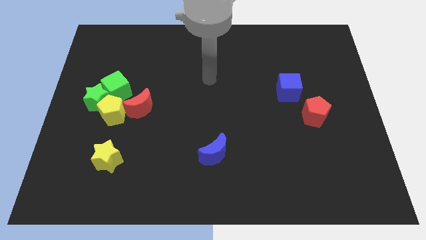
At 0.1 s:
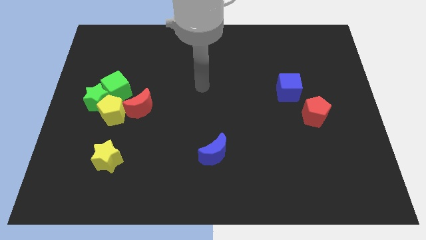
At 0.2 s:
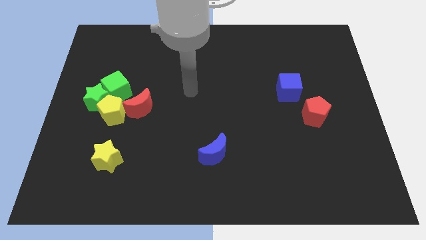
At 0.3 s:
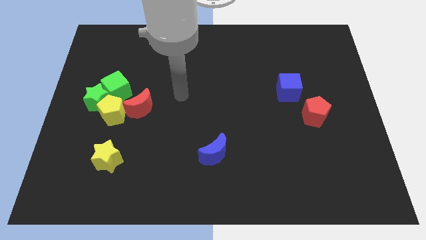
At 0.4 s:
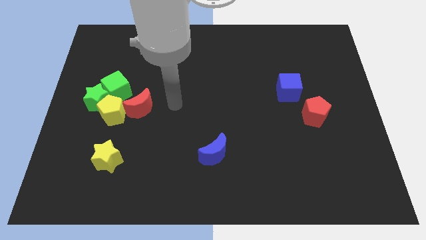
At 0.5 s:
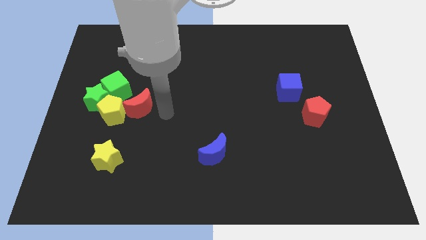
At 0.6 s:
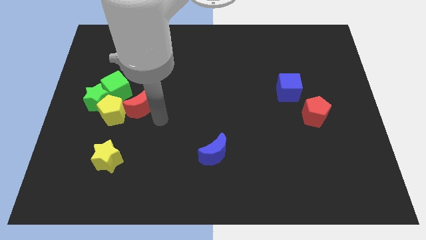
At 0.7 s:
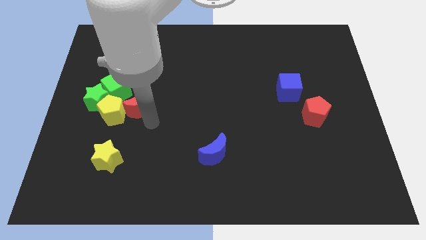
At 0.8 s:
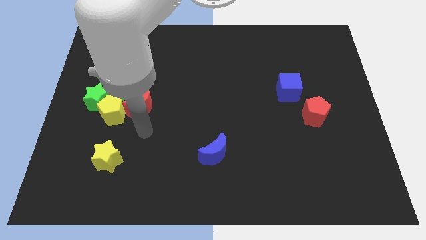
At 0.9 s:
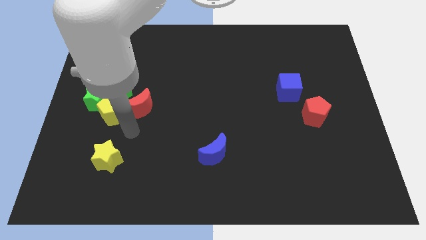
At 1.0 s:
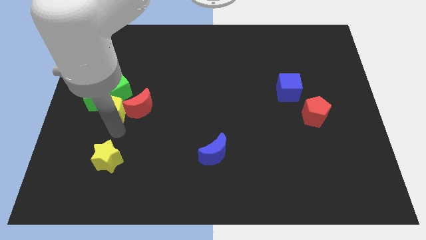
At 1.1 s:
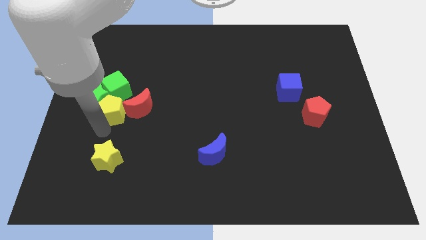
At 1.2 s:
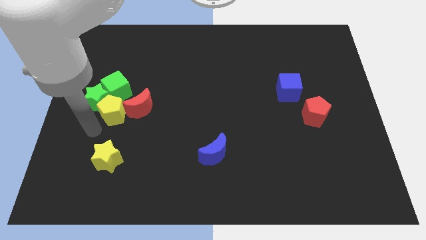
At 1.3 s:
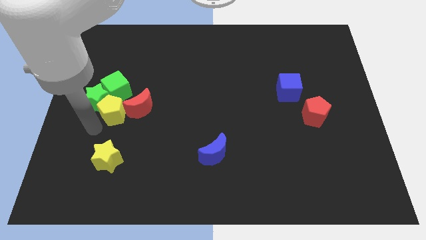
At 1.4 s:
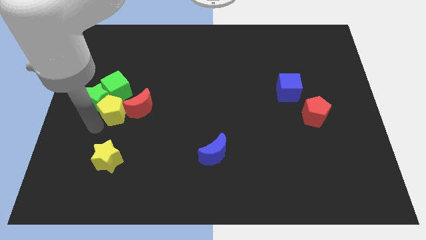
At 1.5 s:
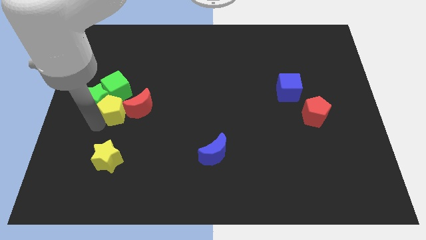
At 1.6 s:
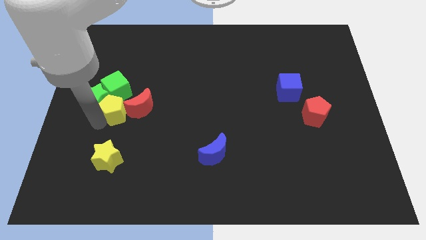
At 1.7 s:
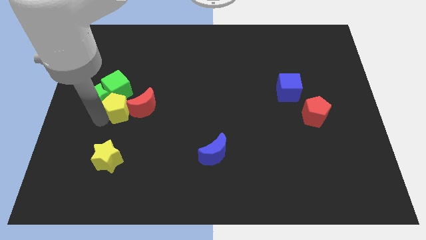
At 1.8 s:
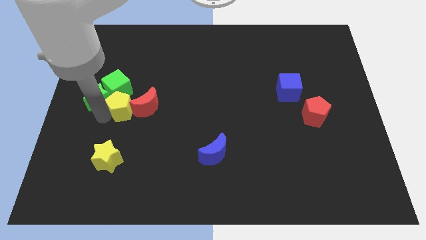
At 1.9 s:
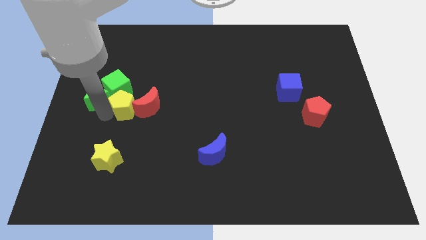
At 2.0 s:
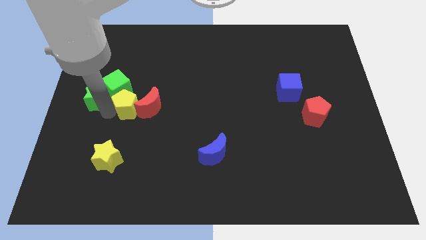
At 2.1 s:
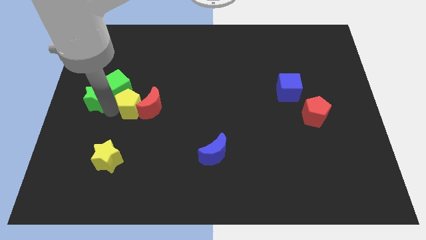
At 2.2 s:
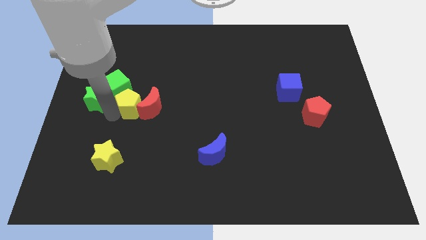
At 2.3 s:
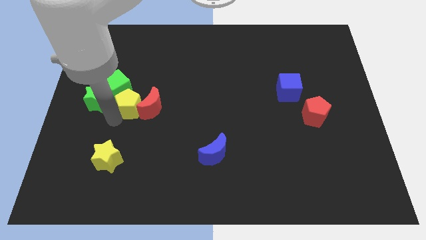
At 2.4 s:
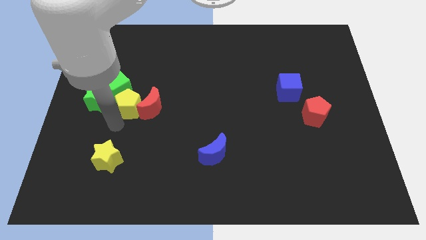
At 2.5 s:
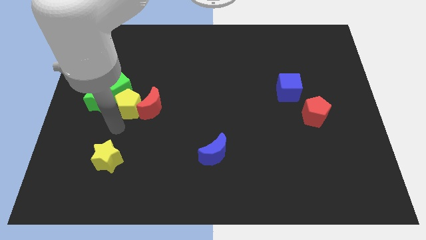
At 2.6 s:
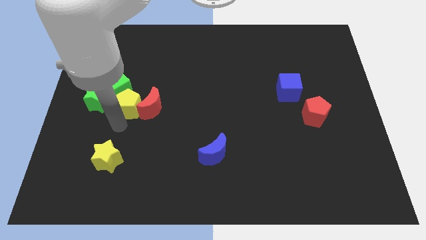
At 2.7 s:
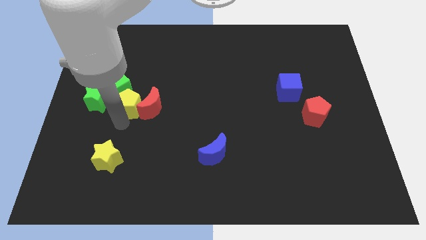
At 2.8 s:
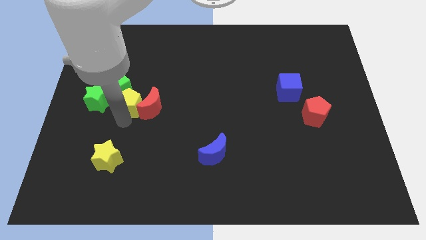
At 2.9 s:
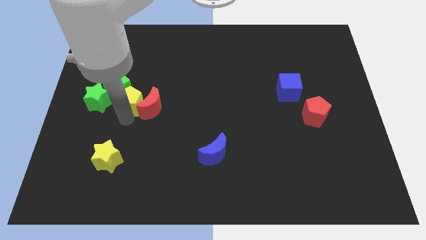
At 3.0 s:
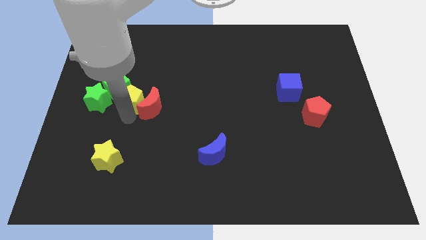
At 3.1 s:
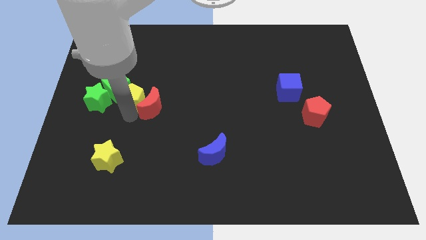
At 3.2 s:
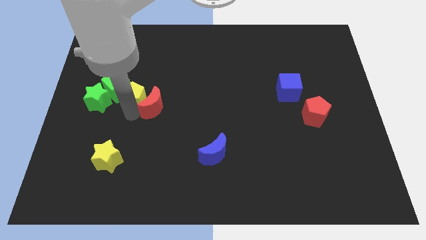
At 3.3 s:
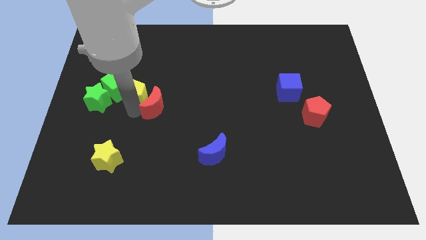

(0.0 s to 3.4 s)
slide the yellow pentagon slightly up and to the right

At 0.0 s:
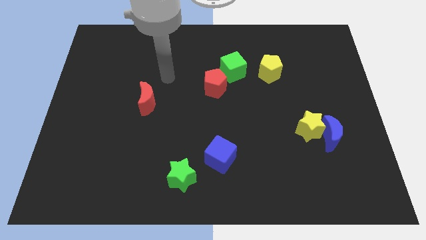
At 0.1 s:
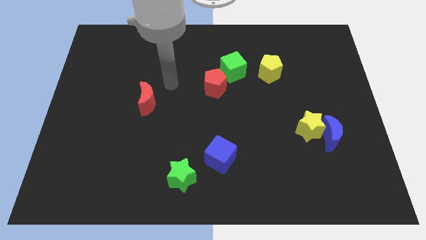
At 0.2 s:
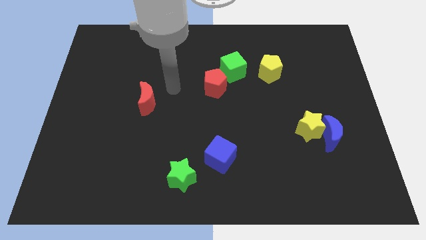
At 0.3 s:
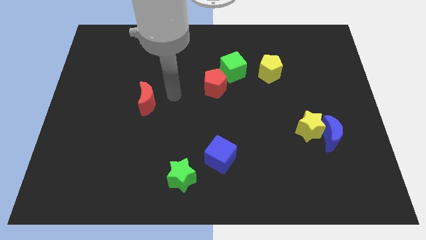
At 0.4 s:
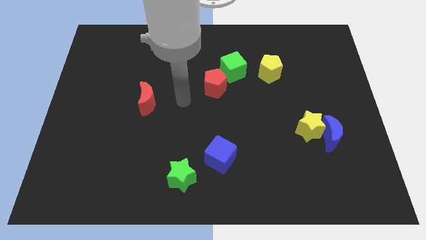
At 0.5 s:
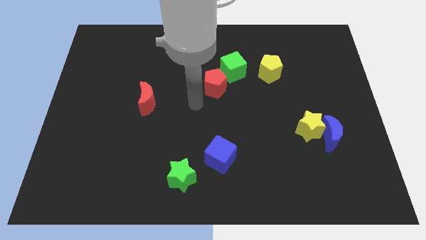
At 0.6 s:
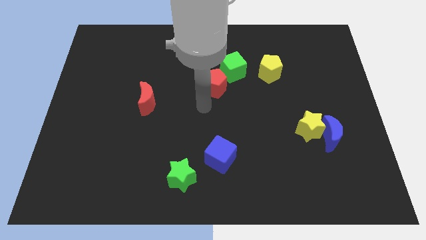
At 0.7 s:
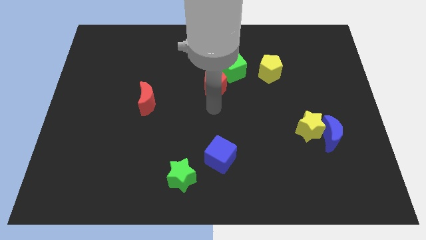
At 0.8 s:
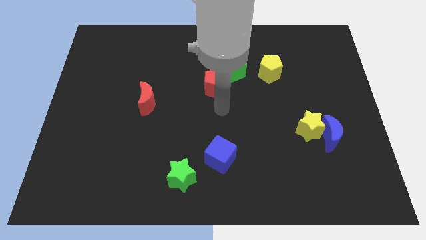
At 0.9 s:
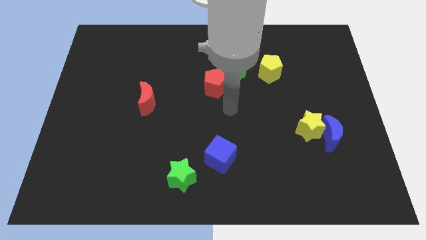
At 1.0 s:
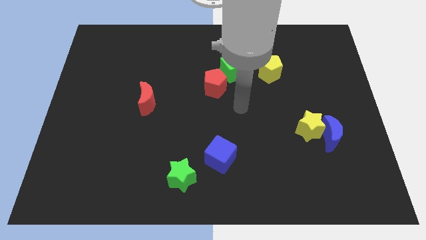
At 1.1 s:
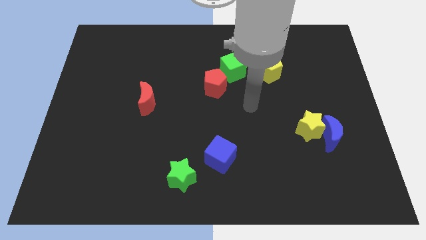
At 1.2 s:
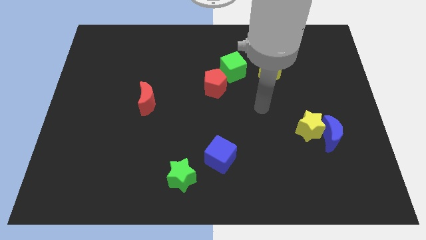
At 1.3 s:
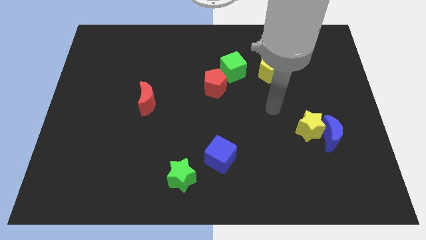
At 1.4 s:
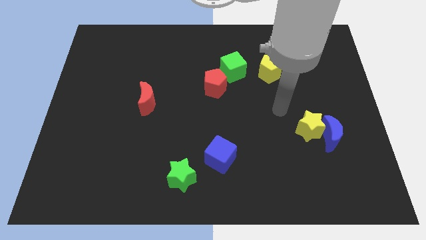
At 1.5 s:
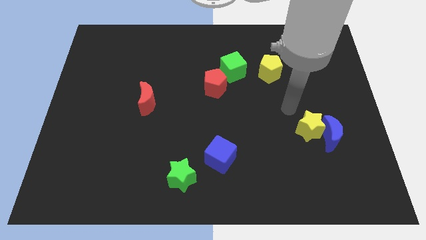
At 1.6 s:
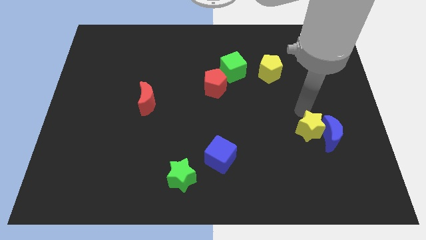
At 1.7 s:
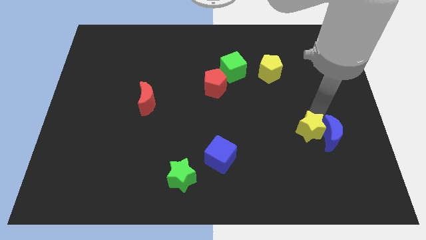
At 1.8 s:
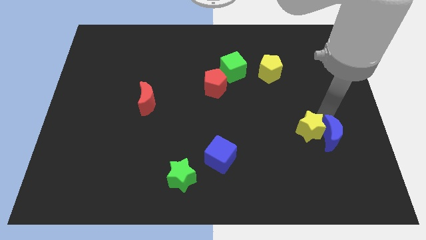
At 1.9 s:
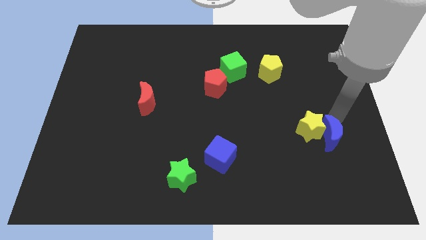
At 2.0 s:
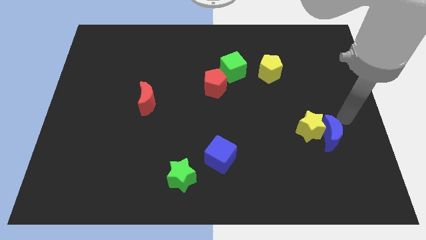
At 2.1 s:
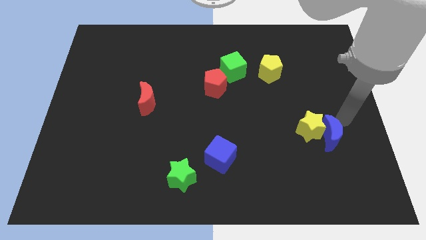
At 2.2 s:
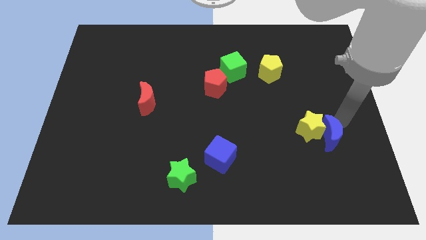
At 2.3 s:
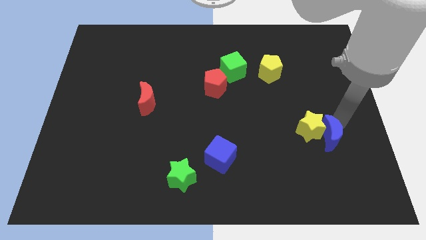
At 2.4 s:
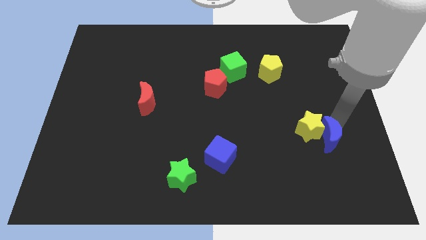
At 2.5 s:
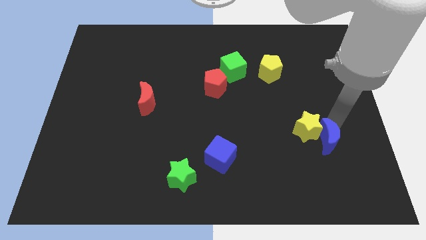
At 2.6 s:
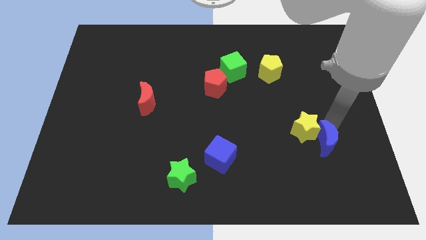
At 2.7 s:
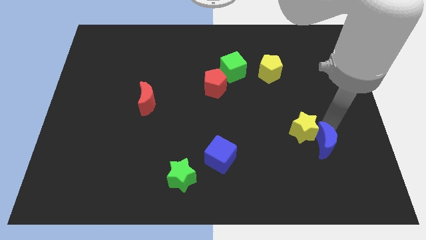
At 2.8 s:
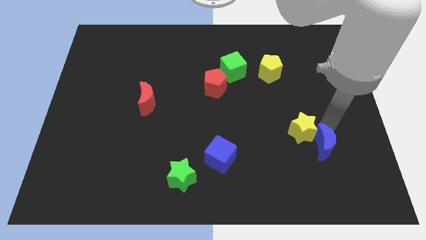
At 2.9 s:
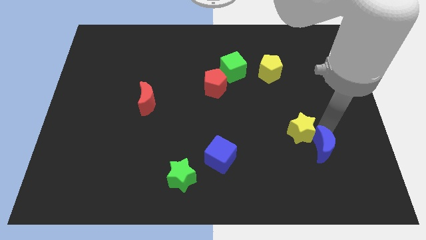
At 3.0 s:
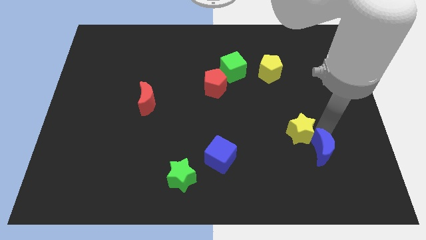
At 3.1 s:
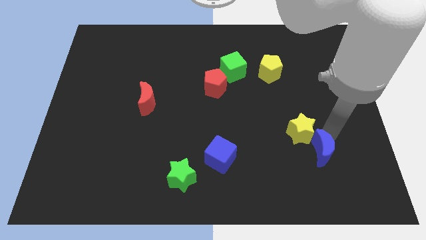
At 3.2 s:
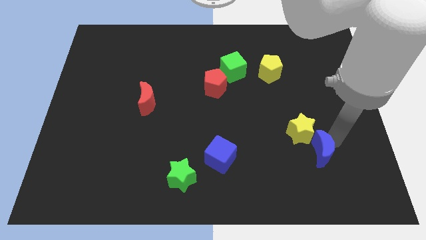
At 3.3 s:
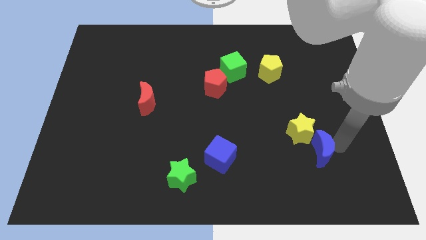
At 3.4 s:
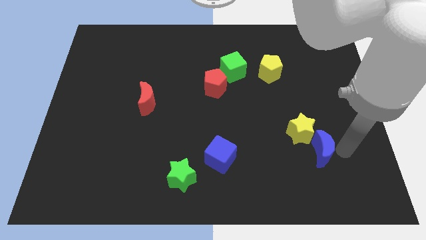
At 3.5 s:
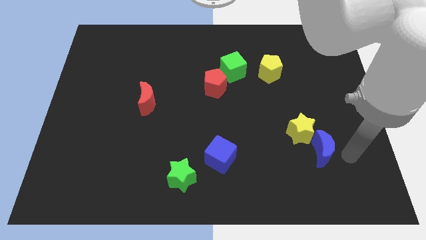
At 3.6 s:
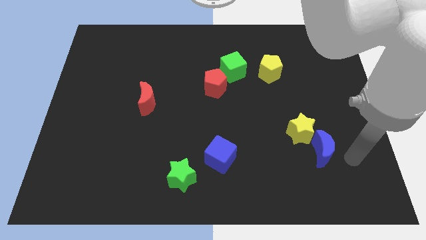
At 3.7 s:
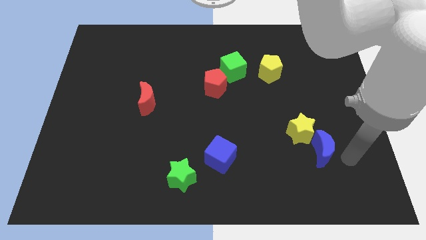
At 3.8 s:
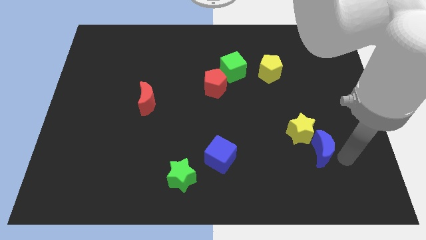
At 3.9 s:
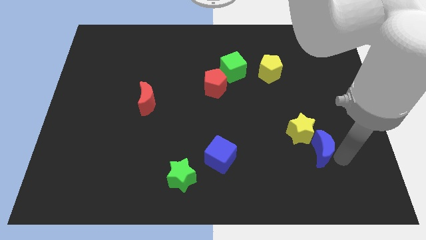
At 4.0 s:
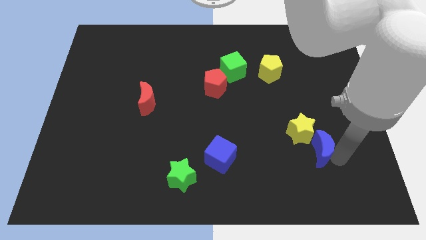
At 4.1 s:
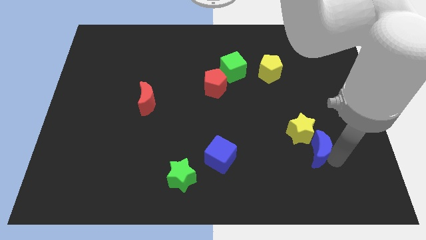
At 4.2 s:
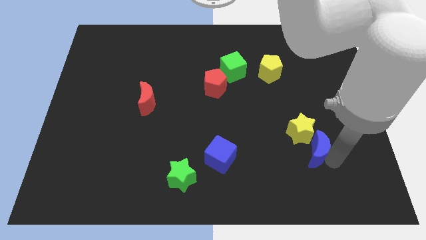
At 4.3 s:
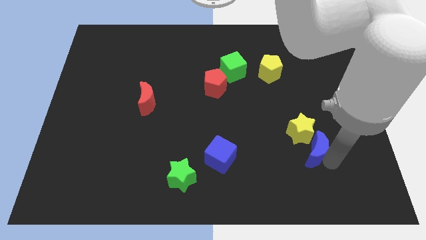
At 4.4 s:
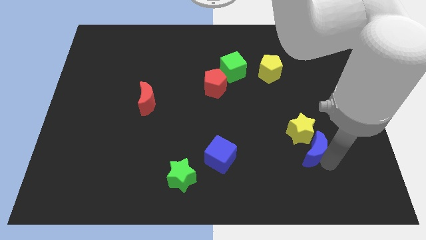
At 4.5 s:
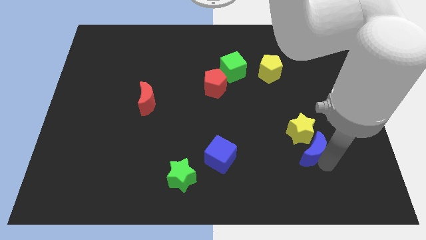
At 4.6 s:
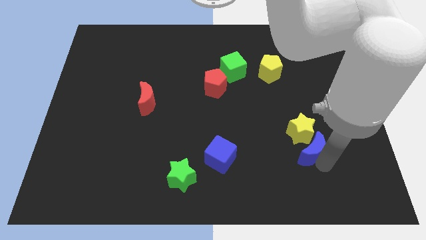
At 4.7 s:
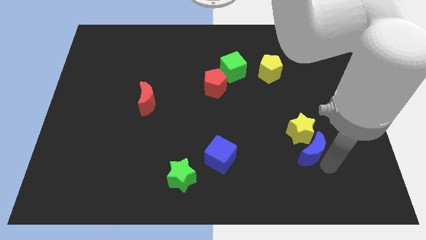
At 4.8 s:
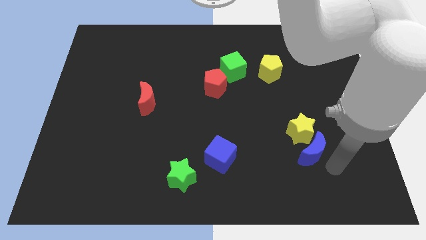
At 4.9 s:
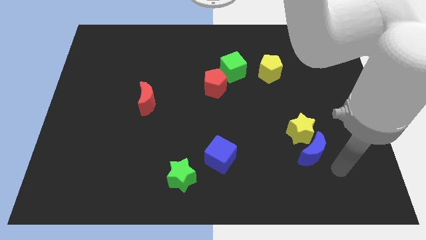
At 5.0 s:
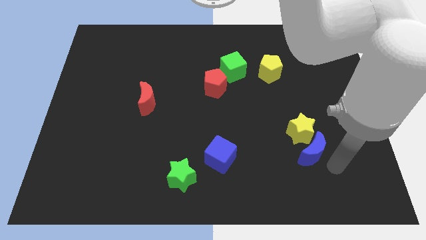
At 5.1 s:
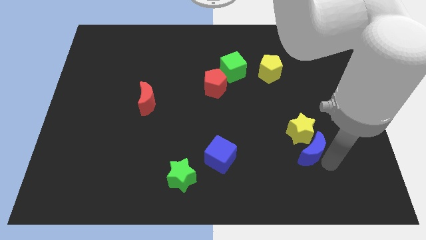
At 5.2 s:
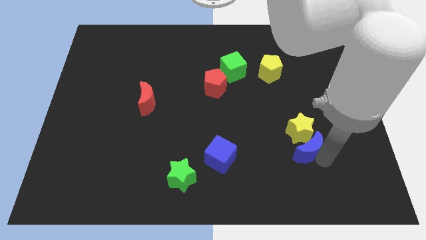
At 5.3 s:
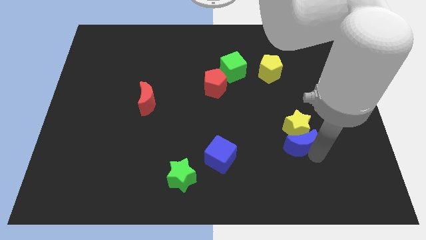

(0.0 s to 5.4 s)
slide the blue moon slightly left
